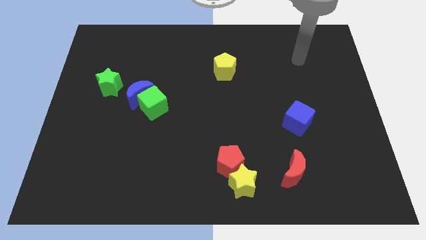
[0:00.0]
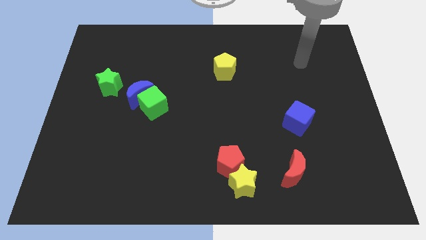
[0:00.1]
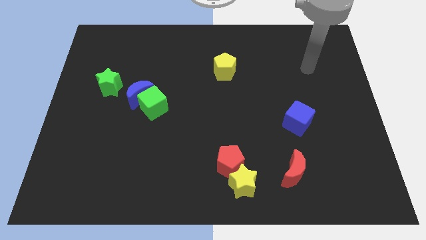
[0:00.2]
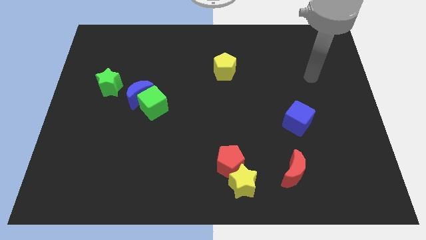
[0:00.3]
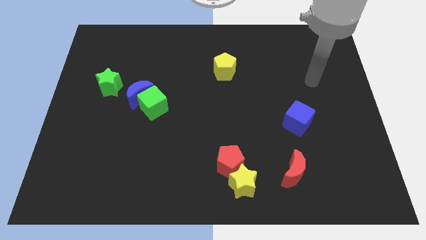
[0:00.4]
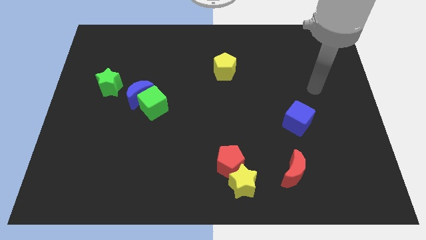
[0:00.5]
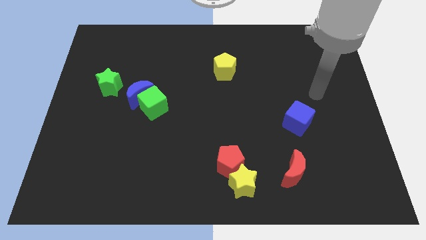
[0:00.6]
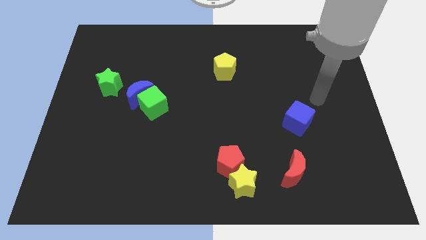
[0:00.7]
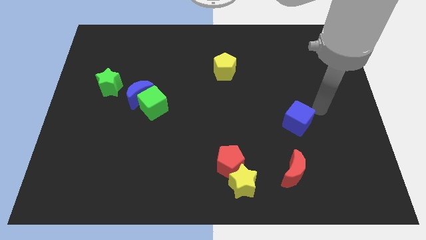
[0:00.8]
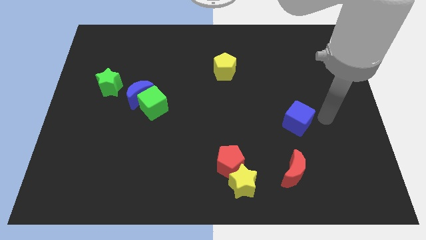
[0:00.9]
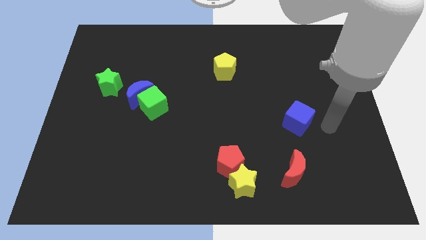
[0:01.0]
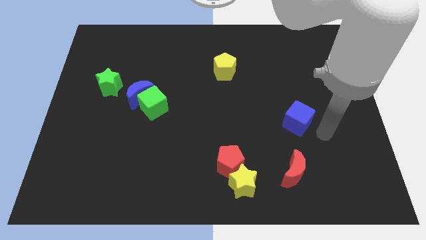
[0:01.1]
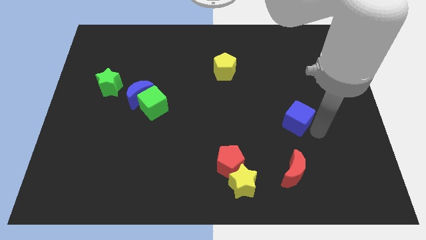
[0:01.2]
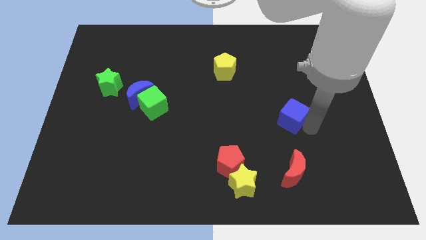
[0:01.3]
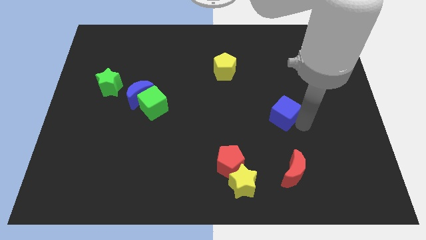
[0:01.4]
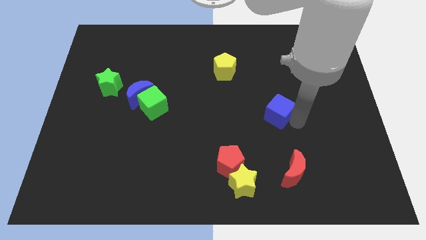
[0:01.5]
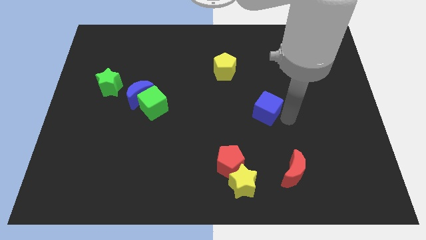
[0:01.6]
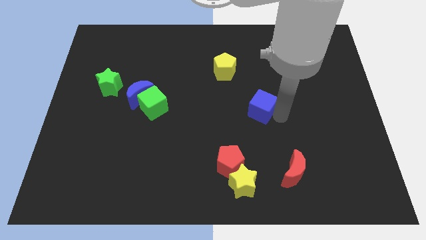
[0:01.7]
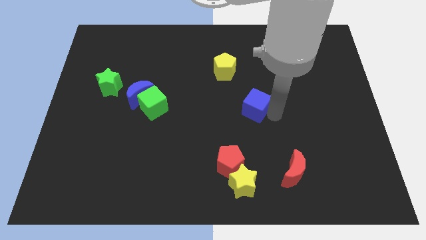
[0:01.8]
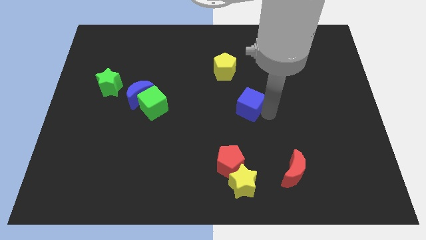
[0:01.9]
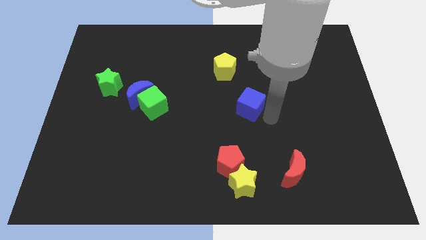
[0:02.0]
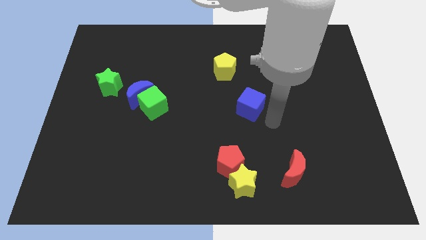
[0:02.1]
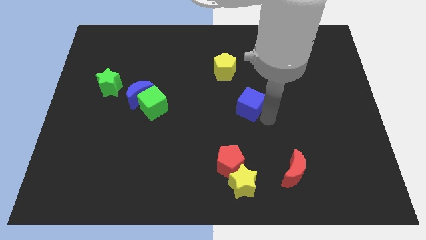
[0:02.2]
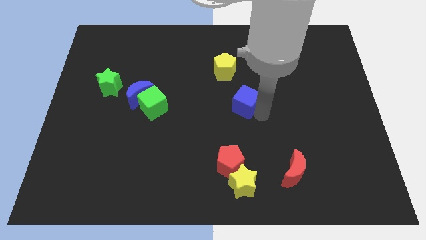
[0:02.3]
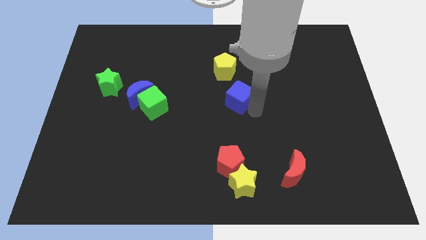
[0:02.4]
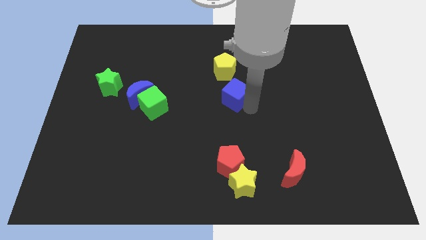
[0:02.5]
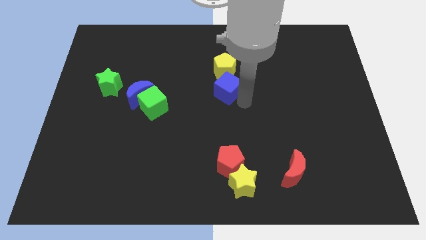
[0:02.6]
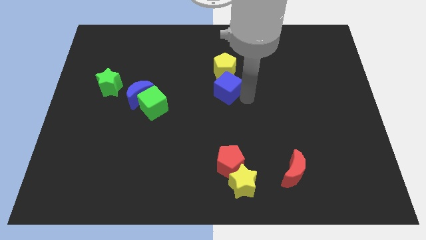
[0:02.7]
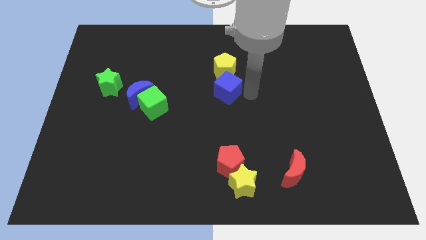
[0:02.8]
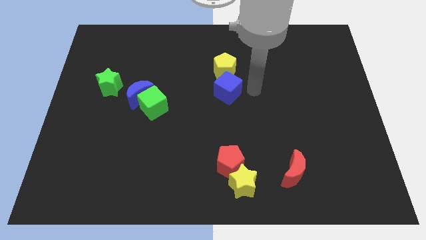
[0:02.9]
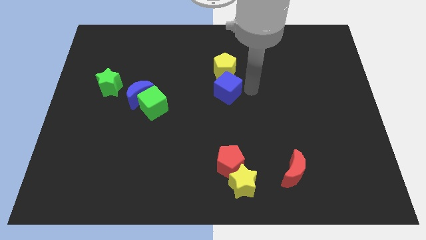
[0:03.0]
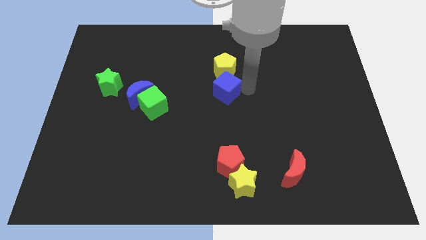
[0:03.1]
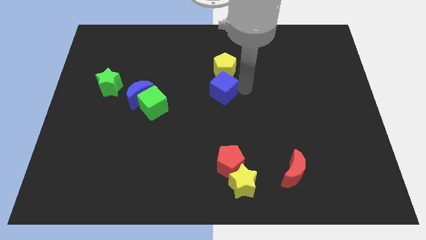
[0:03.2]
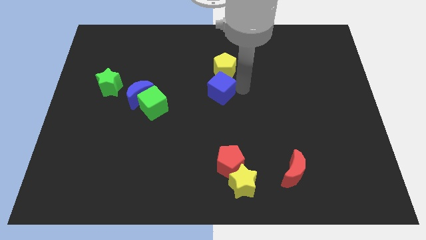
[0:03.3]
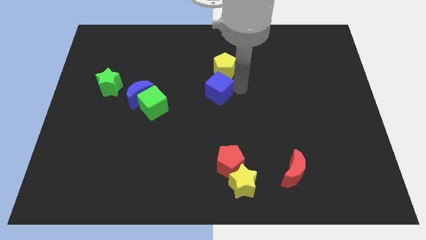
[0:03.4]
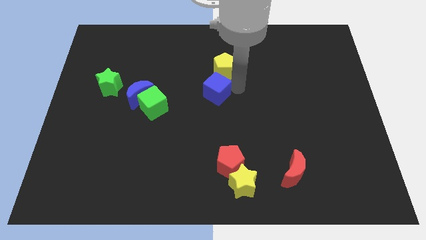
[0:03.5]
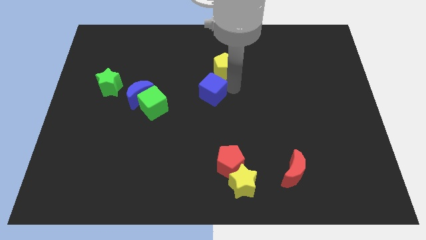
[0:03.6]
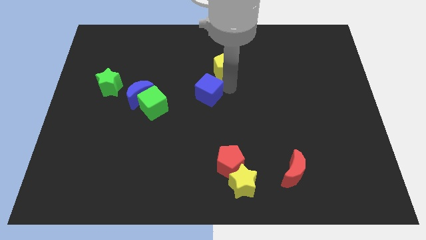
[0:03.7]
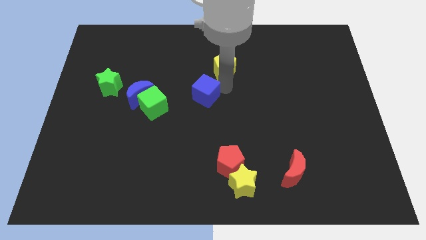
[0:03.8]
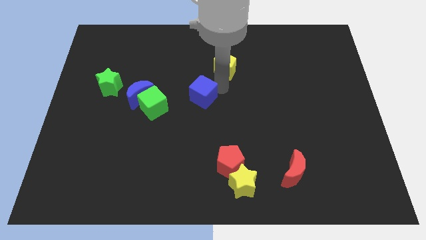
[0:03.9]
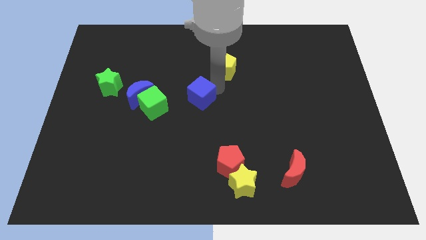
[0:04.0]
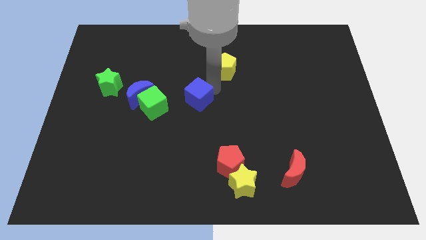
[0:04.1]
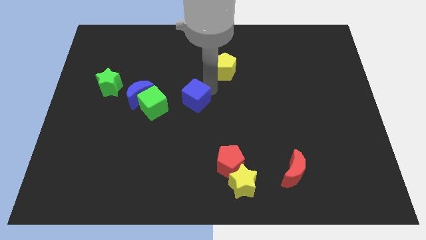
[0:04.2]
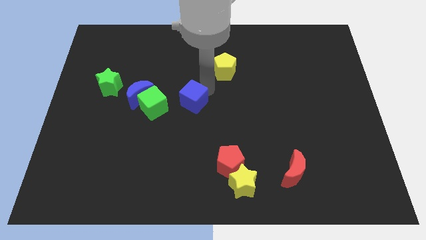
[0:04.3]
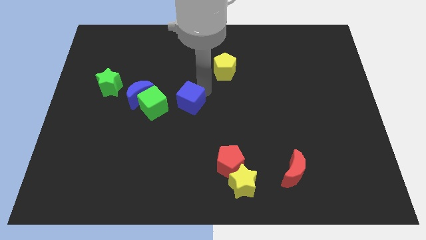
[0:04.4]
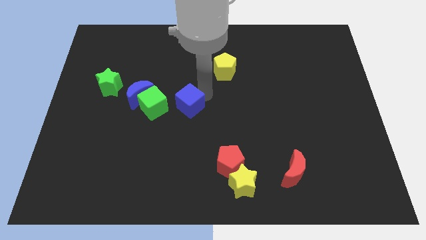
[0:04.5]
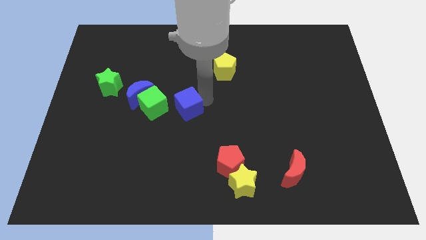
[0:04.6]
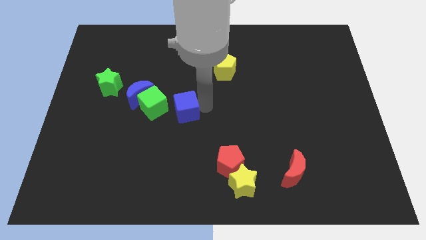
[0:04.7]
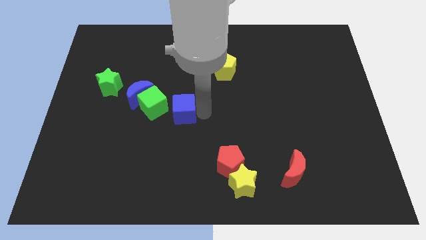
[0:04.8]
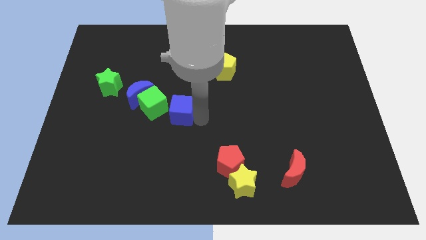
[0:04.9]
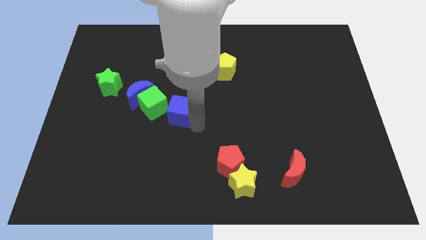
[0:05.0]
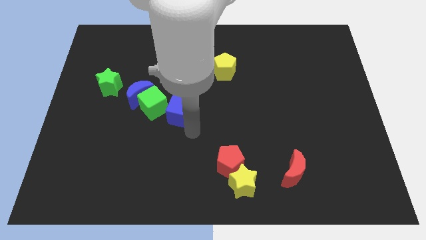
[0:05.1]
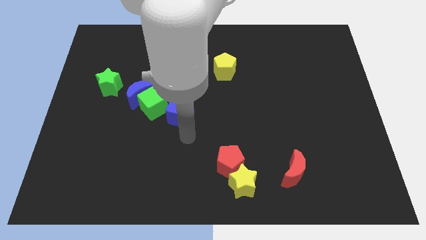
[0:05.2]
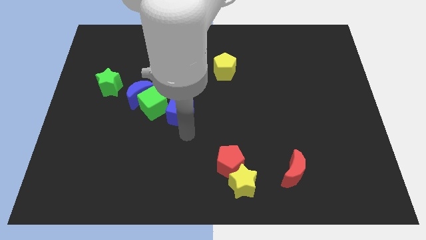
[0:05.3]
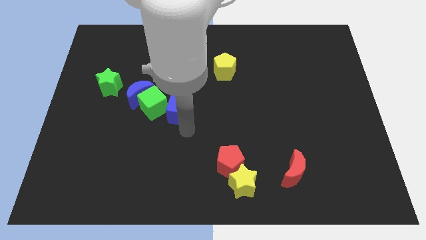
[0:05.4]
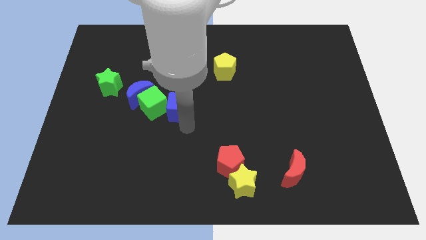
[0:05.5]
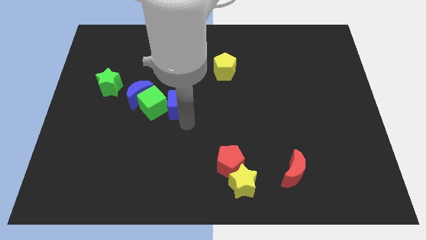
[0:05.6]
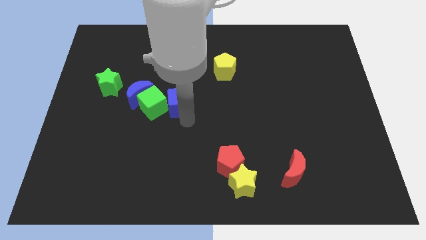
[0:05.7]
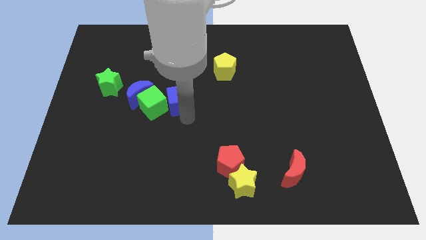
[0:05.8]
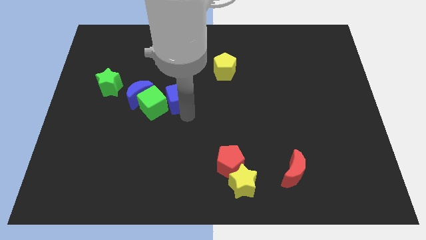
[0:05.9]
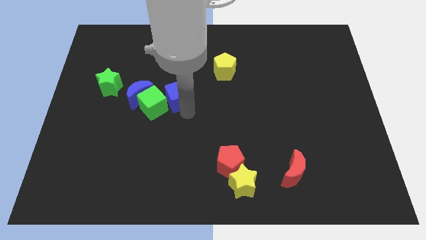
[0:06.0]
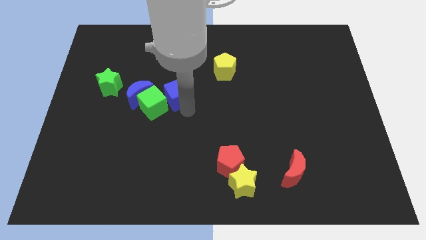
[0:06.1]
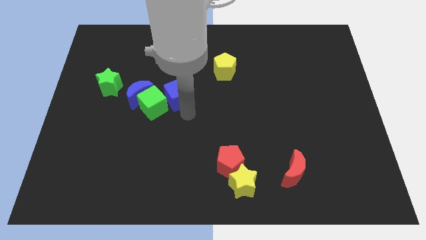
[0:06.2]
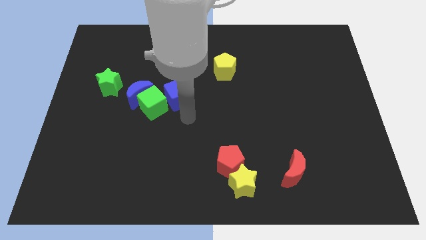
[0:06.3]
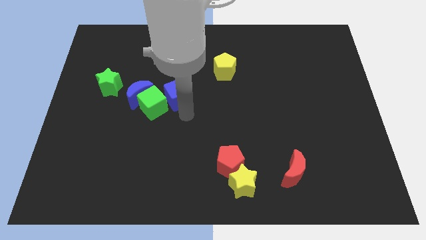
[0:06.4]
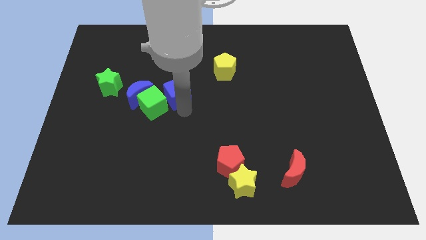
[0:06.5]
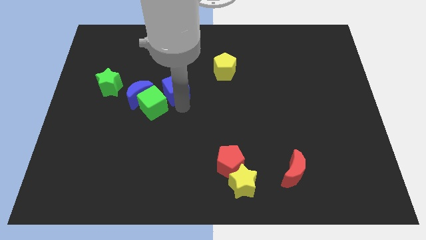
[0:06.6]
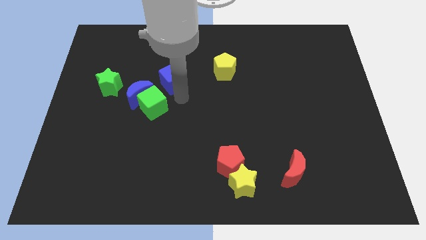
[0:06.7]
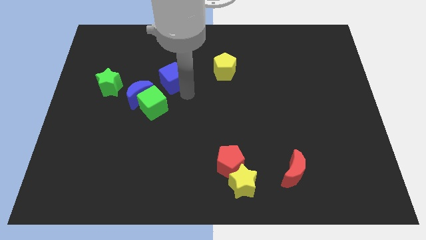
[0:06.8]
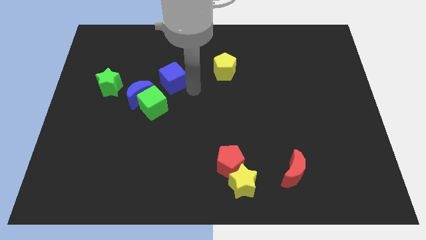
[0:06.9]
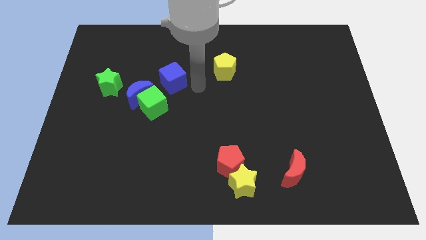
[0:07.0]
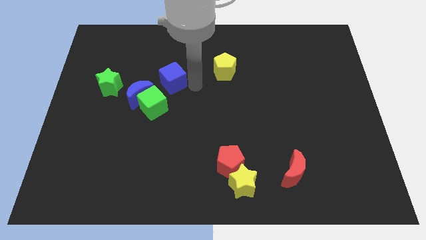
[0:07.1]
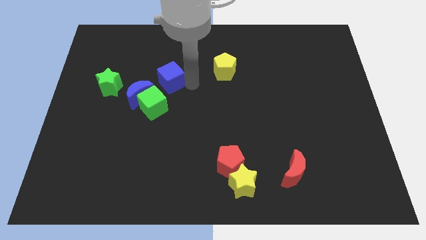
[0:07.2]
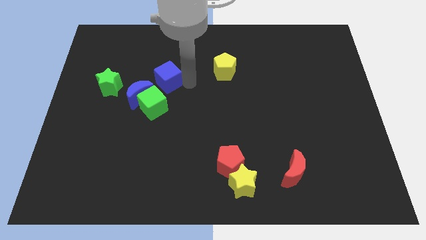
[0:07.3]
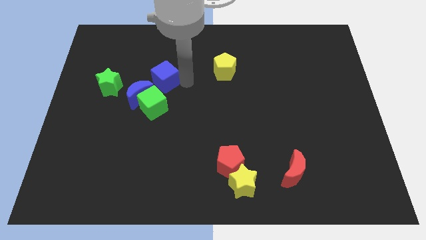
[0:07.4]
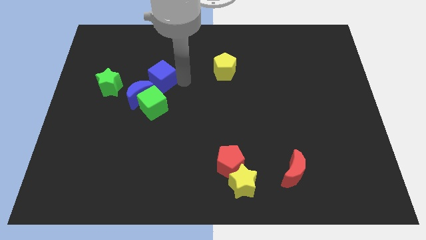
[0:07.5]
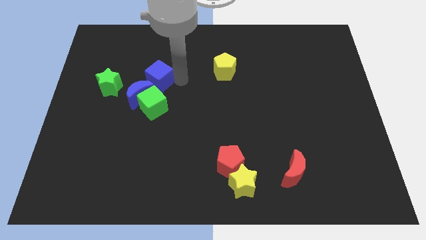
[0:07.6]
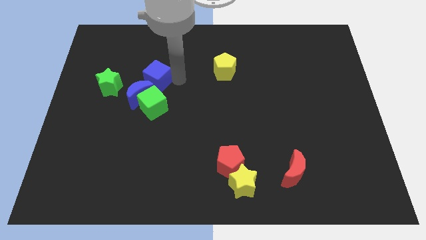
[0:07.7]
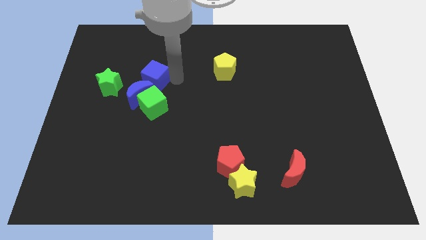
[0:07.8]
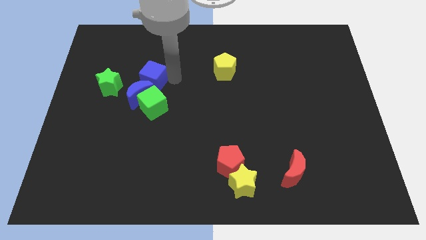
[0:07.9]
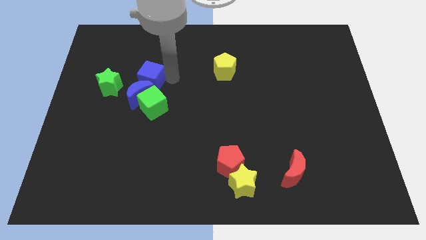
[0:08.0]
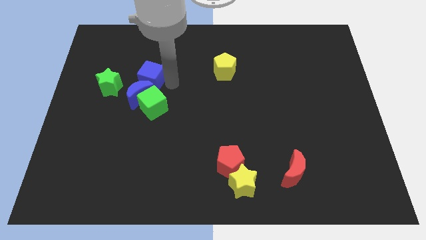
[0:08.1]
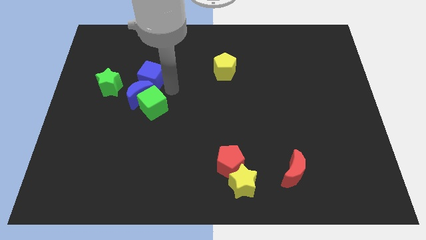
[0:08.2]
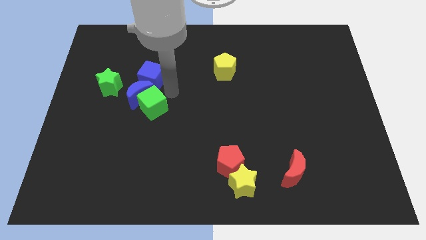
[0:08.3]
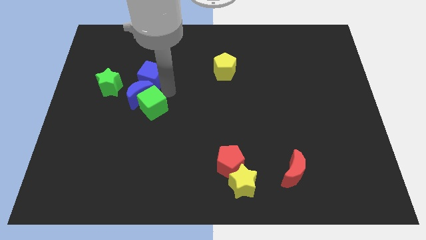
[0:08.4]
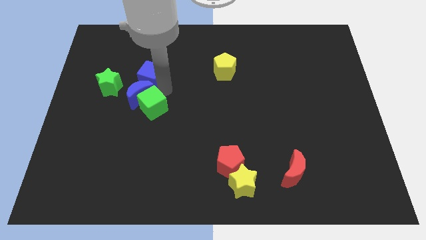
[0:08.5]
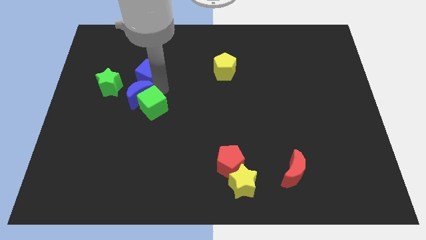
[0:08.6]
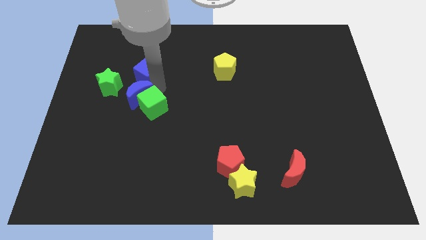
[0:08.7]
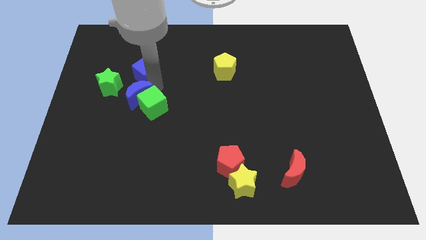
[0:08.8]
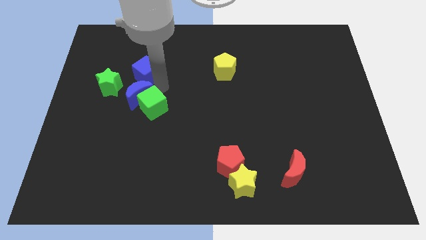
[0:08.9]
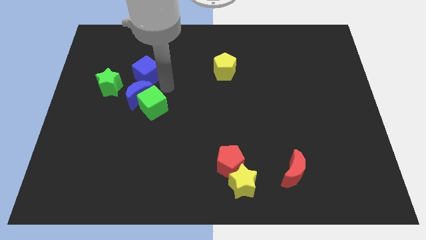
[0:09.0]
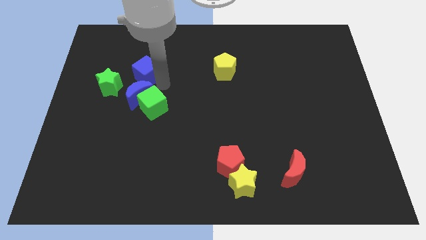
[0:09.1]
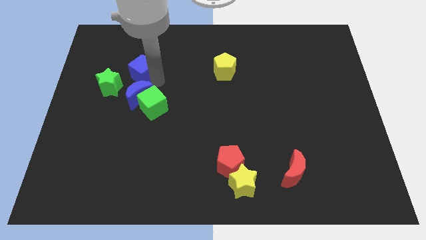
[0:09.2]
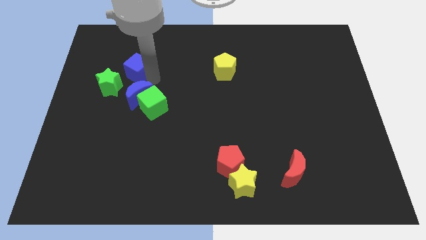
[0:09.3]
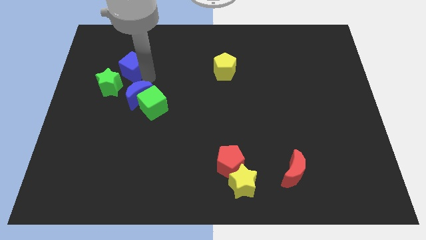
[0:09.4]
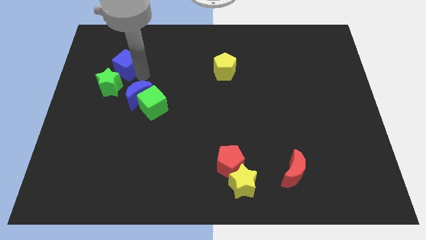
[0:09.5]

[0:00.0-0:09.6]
slide the blue cube to the top of the green star
